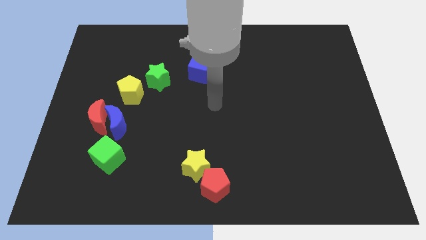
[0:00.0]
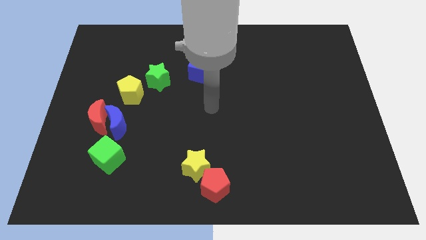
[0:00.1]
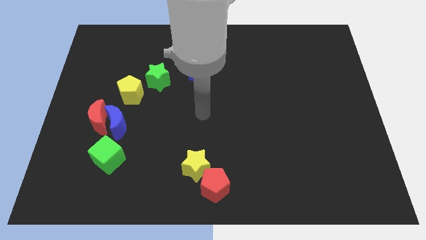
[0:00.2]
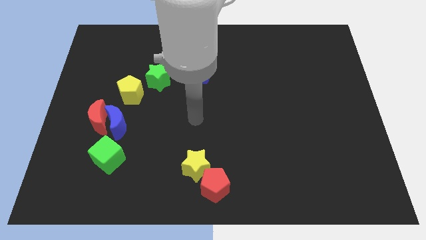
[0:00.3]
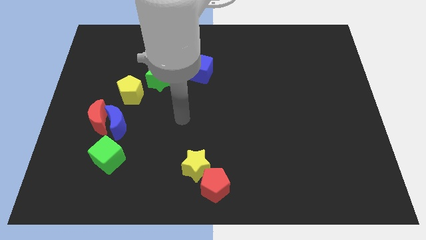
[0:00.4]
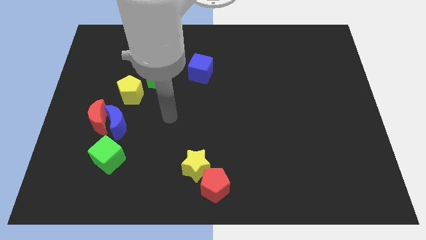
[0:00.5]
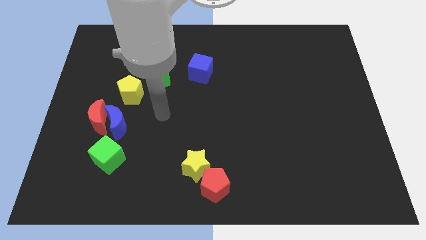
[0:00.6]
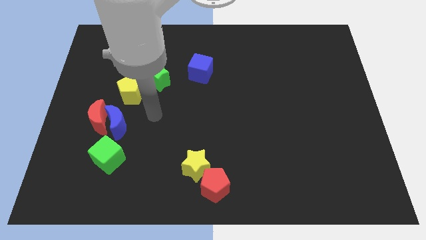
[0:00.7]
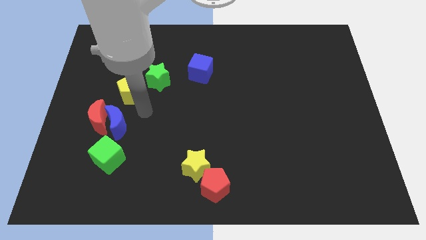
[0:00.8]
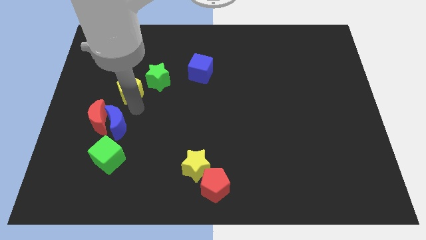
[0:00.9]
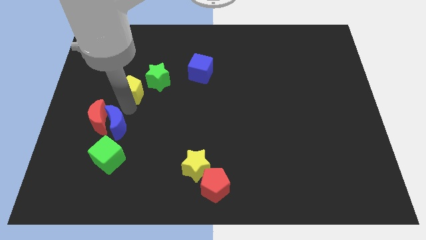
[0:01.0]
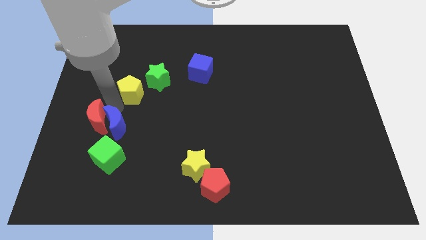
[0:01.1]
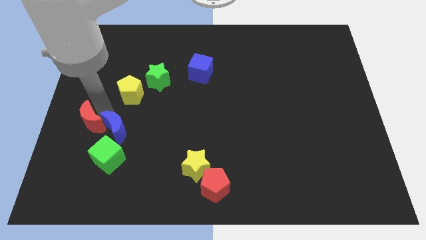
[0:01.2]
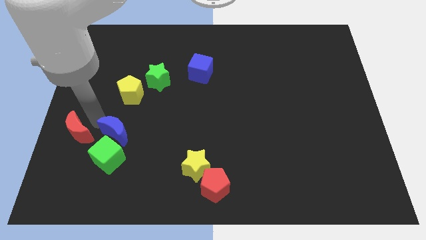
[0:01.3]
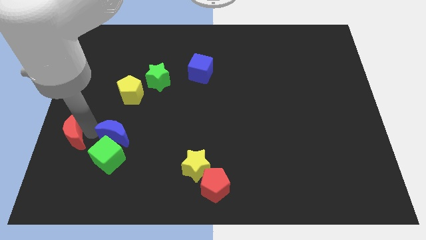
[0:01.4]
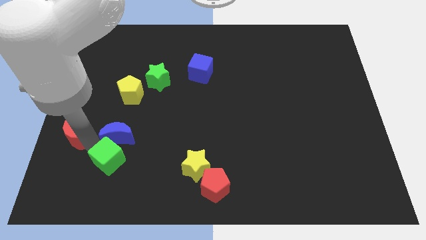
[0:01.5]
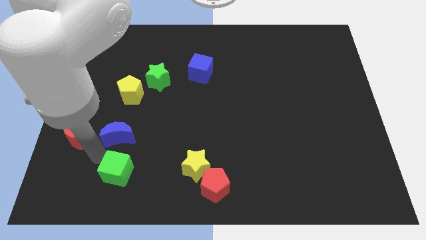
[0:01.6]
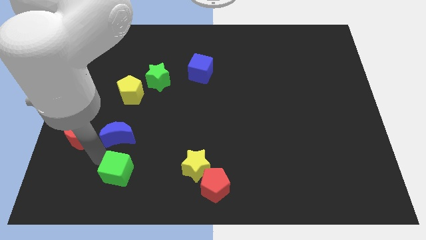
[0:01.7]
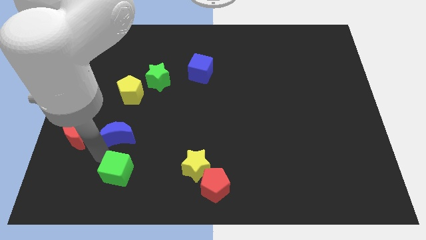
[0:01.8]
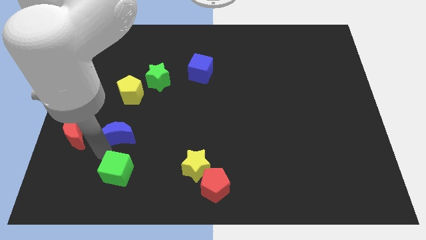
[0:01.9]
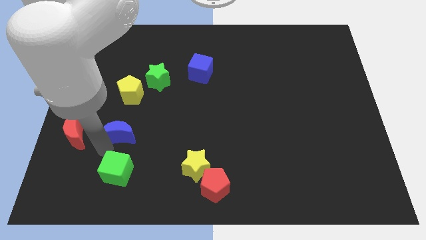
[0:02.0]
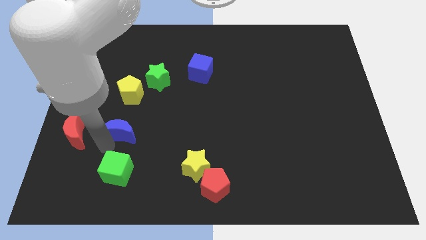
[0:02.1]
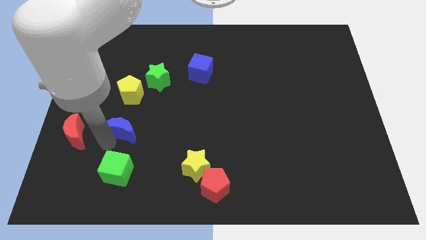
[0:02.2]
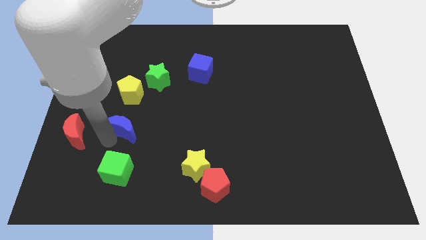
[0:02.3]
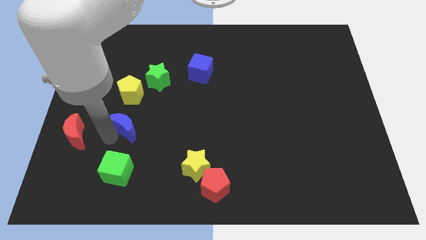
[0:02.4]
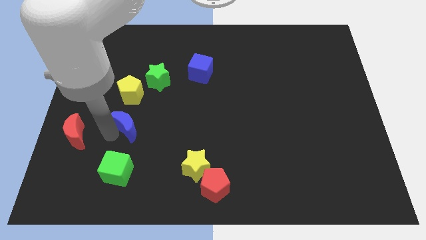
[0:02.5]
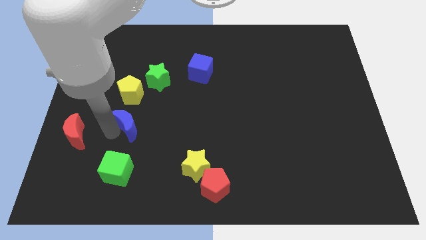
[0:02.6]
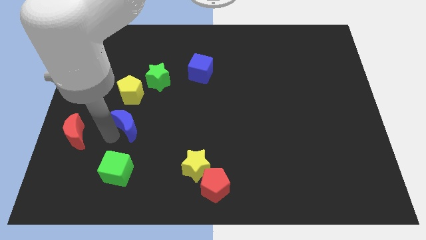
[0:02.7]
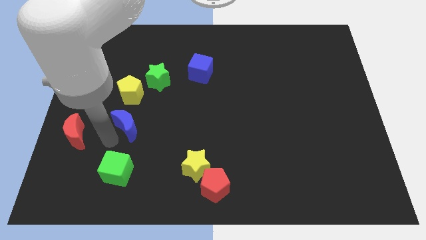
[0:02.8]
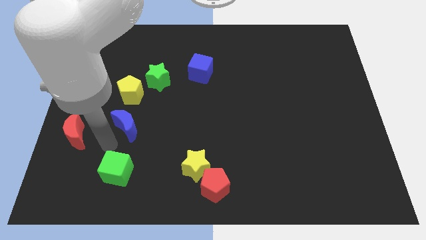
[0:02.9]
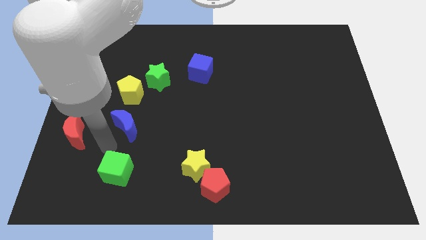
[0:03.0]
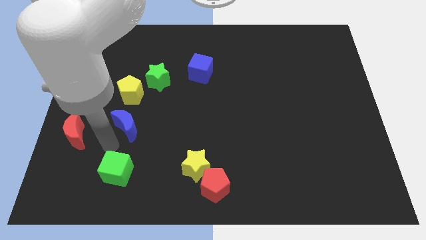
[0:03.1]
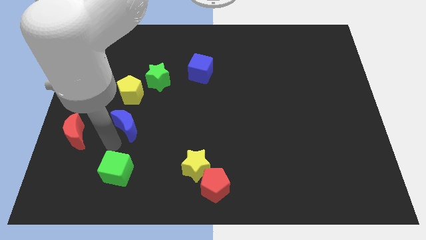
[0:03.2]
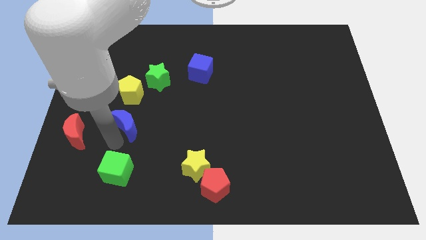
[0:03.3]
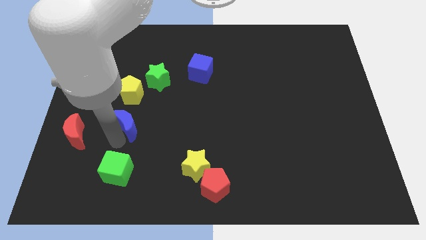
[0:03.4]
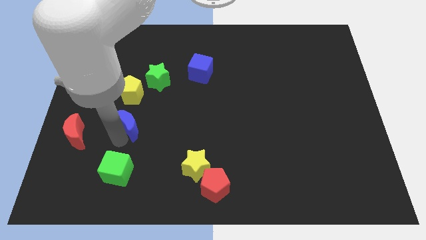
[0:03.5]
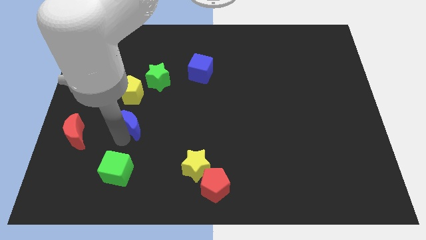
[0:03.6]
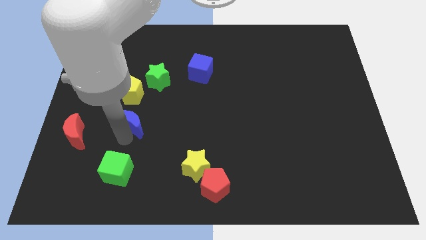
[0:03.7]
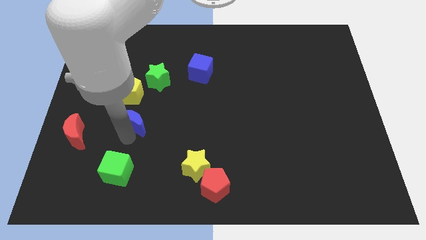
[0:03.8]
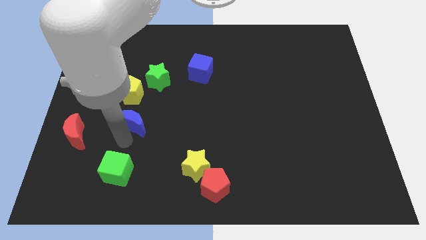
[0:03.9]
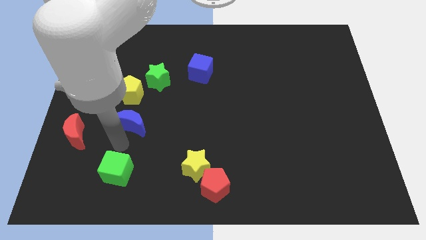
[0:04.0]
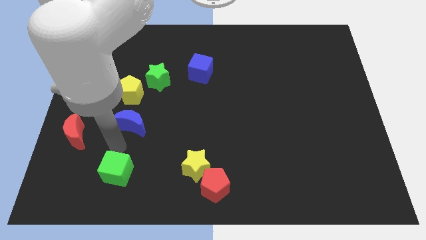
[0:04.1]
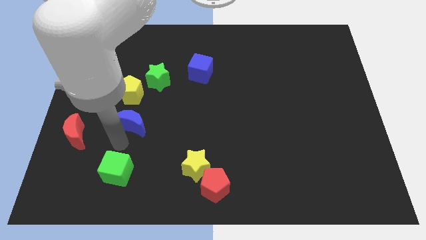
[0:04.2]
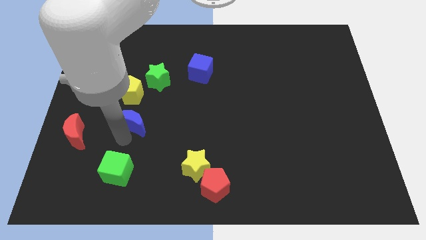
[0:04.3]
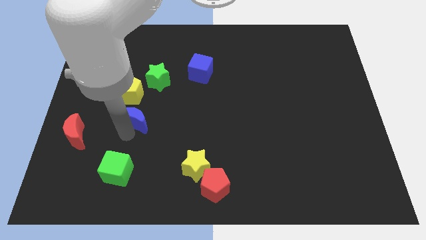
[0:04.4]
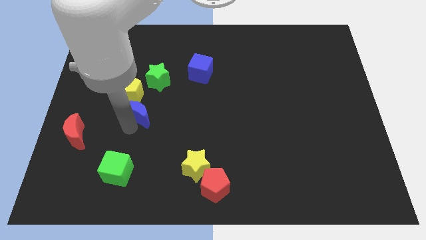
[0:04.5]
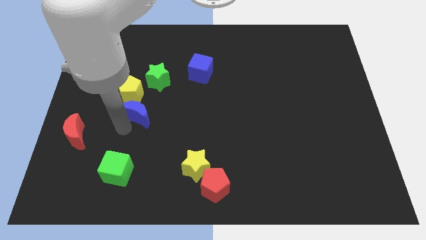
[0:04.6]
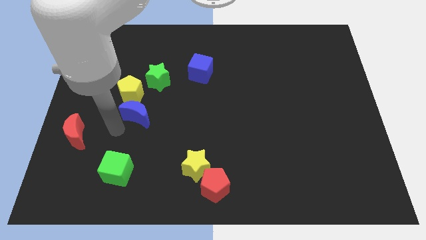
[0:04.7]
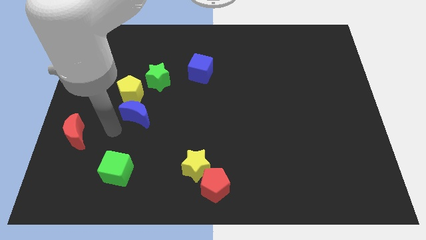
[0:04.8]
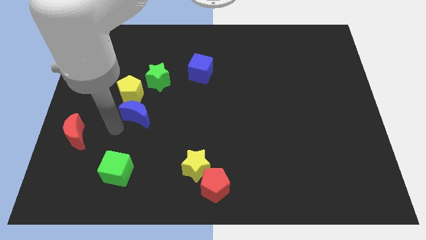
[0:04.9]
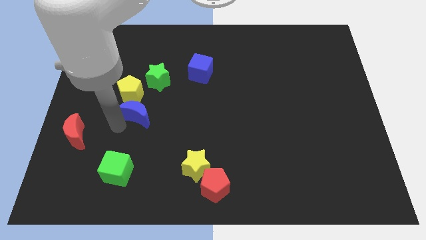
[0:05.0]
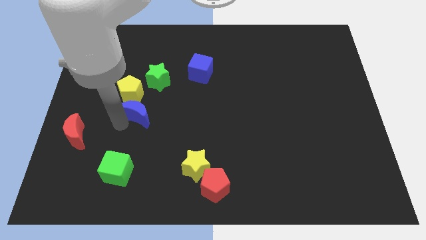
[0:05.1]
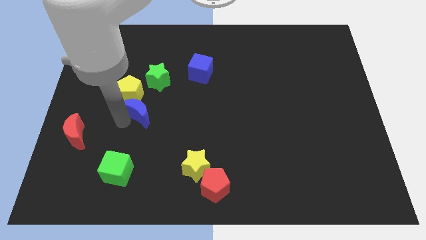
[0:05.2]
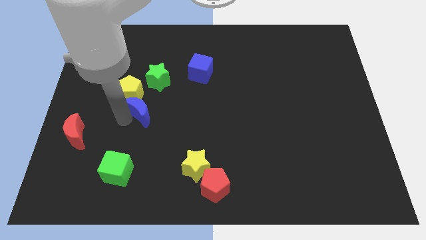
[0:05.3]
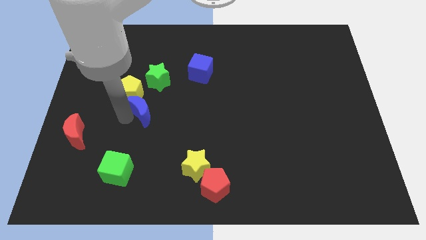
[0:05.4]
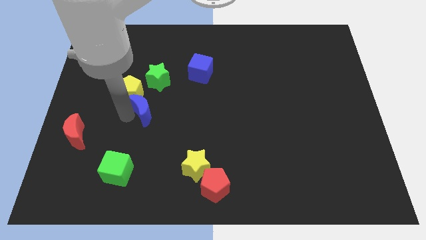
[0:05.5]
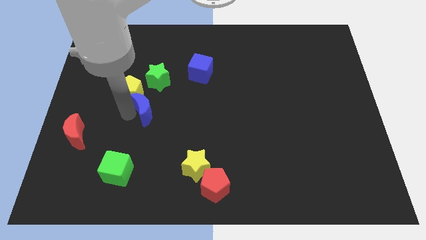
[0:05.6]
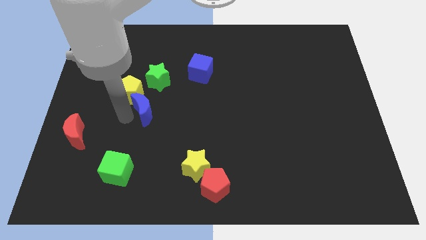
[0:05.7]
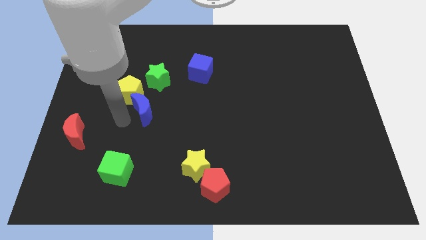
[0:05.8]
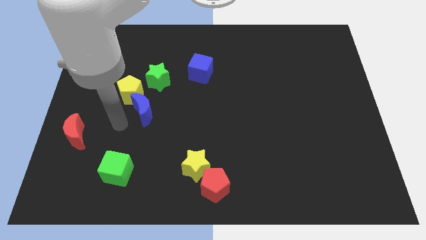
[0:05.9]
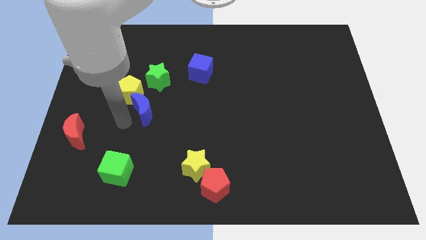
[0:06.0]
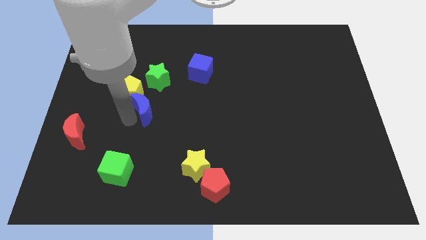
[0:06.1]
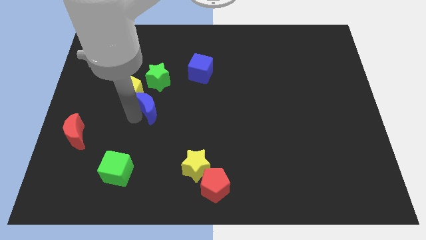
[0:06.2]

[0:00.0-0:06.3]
slide the blue moon slightly upwards and to the right diagonally

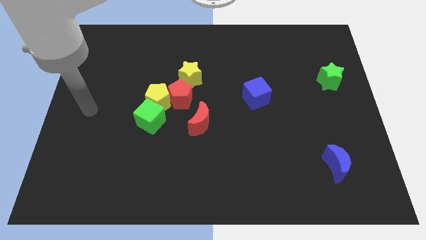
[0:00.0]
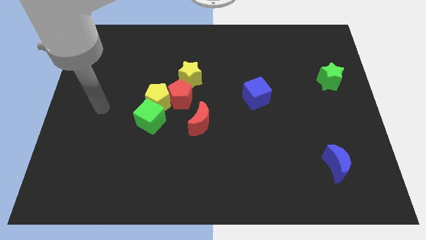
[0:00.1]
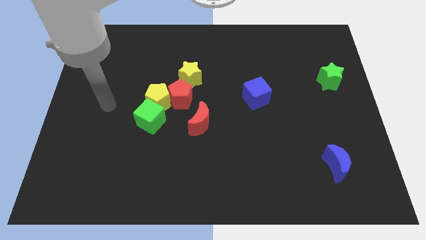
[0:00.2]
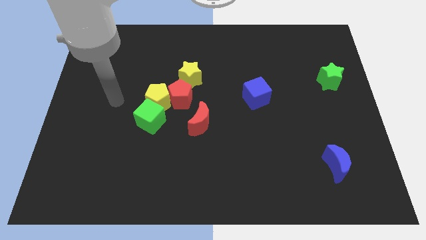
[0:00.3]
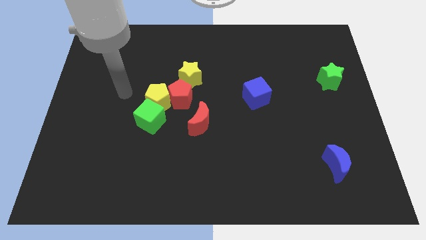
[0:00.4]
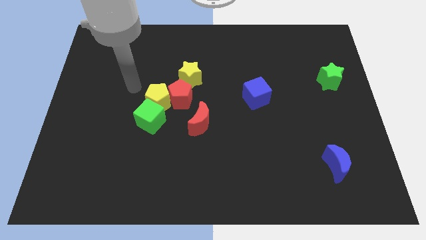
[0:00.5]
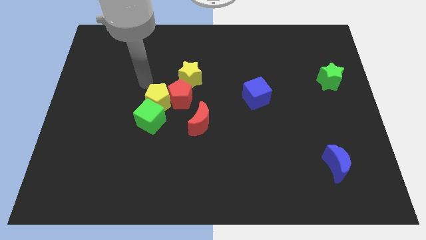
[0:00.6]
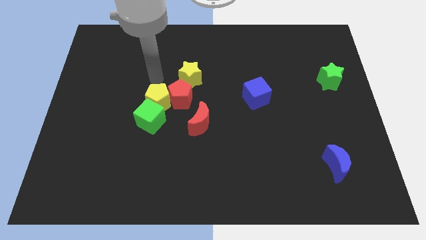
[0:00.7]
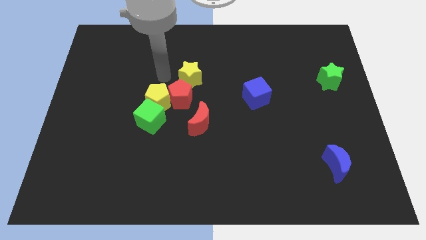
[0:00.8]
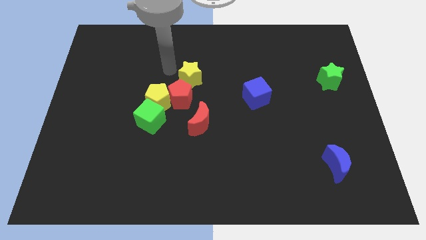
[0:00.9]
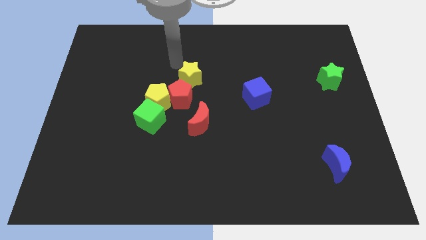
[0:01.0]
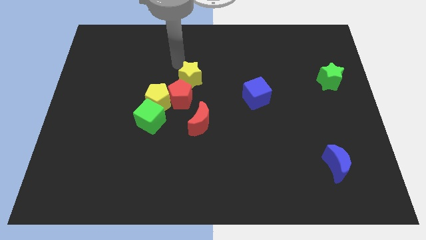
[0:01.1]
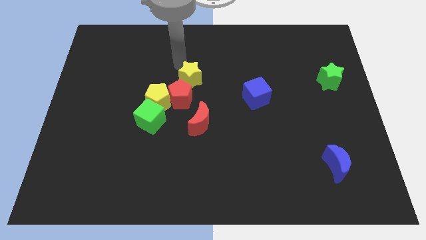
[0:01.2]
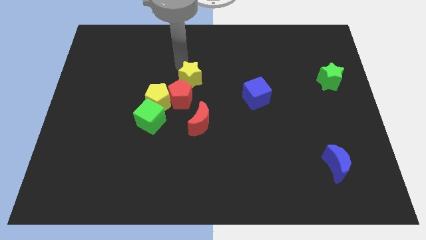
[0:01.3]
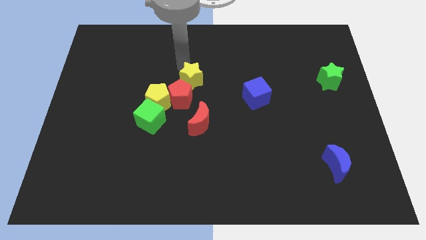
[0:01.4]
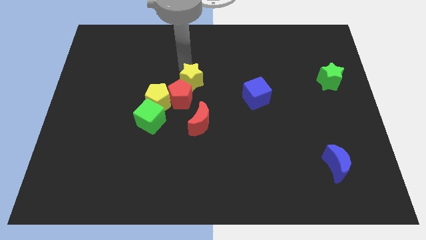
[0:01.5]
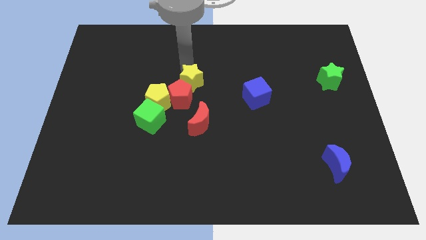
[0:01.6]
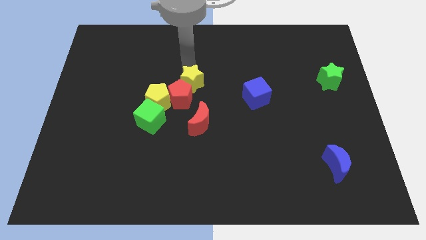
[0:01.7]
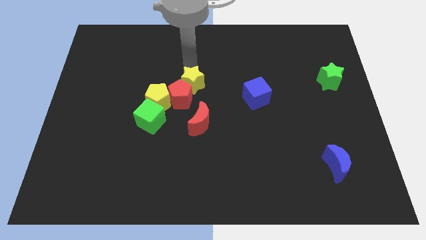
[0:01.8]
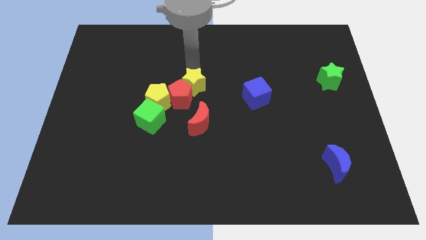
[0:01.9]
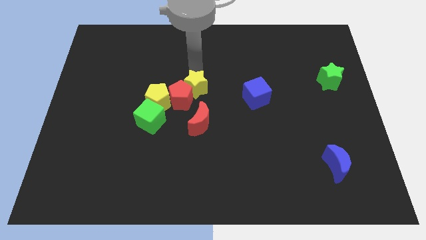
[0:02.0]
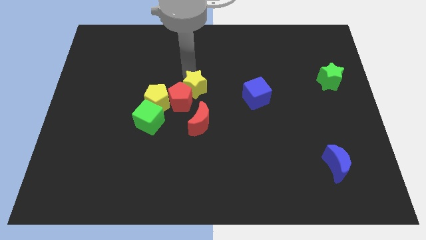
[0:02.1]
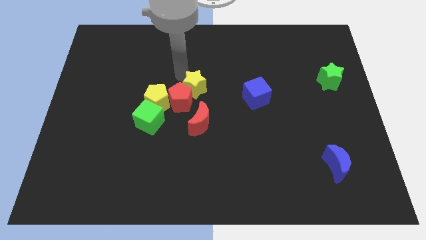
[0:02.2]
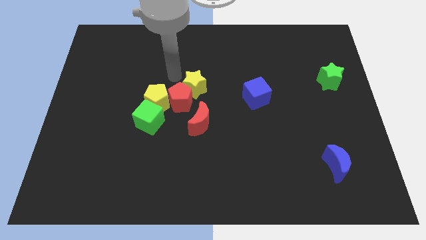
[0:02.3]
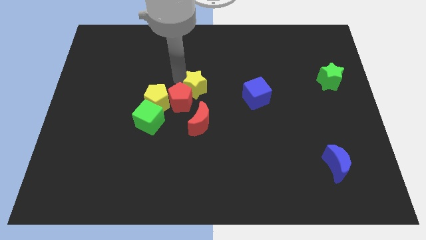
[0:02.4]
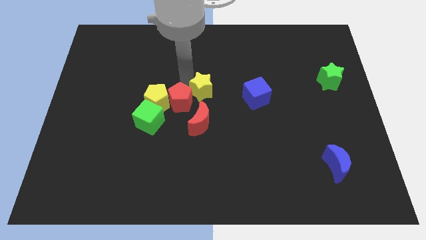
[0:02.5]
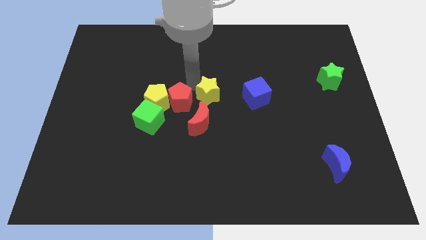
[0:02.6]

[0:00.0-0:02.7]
move the yellow star diagonally downwards and right a little
